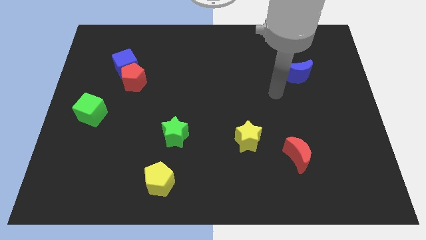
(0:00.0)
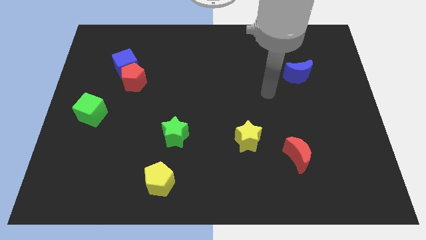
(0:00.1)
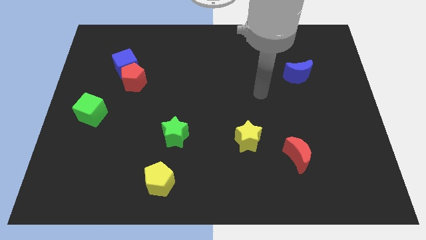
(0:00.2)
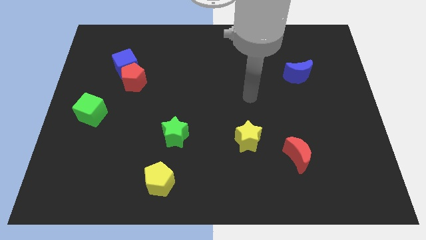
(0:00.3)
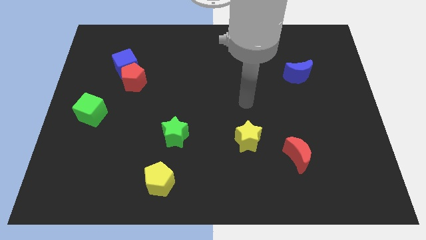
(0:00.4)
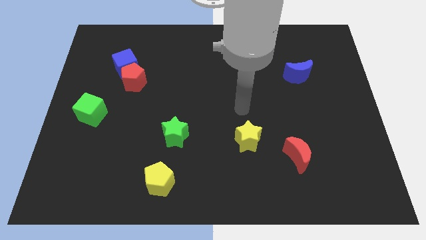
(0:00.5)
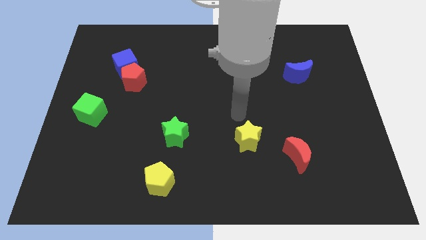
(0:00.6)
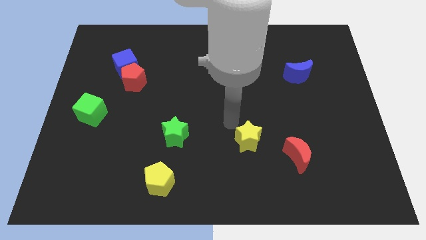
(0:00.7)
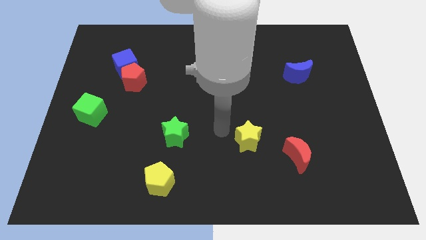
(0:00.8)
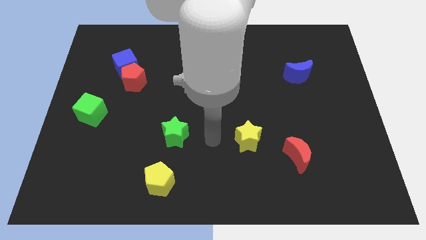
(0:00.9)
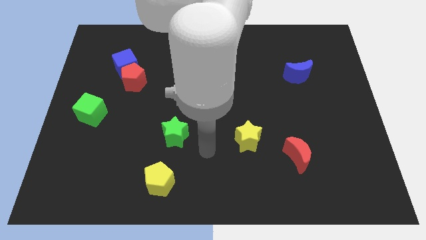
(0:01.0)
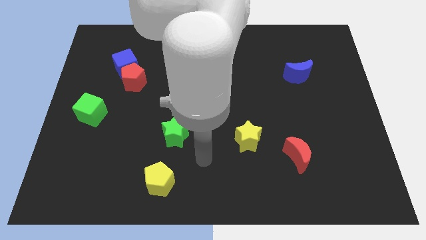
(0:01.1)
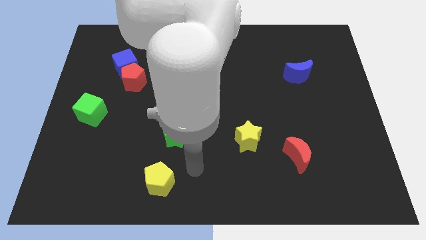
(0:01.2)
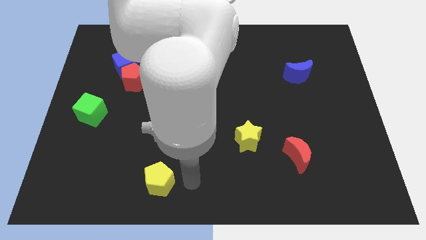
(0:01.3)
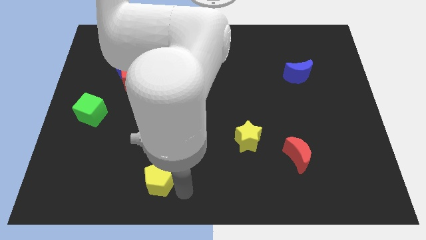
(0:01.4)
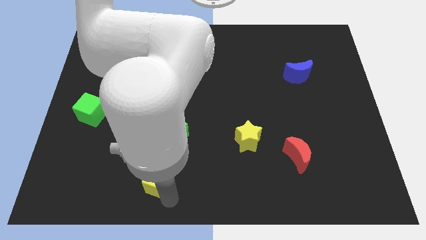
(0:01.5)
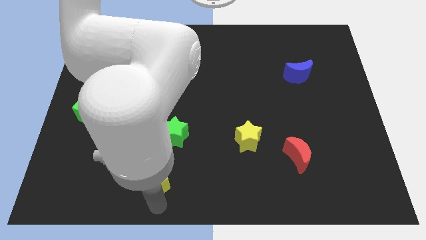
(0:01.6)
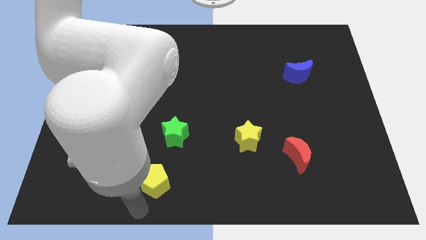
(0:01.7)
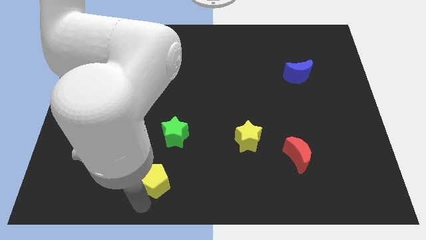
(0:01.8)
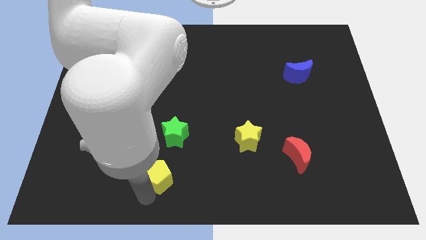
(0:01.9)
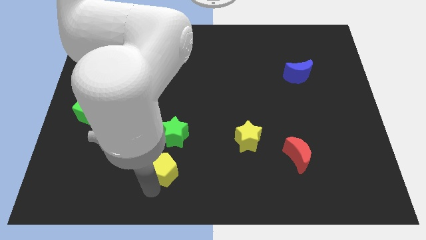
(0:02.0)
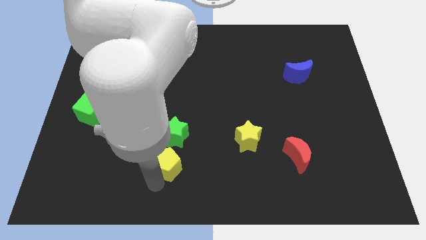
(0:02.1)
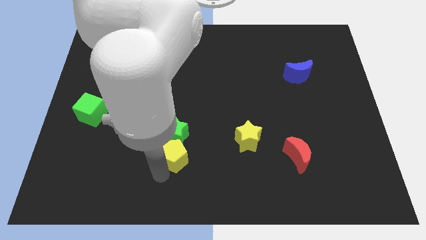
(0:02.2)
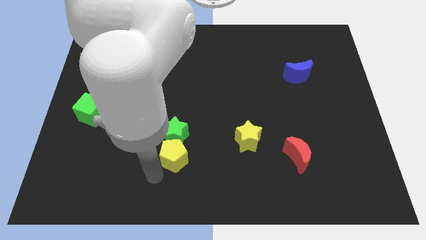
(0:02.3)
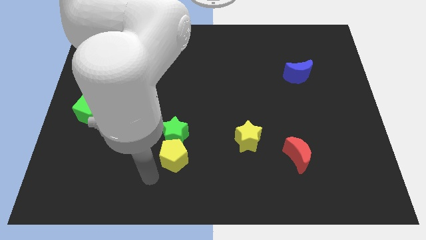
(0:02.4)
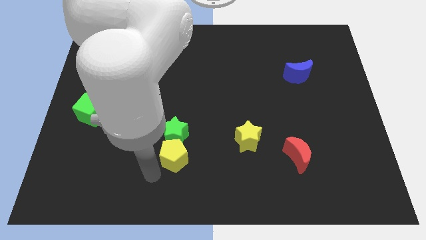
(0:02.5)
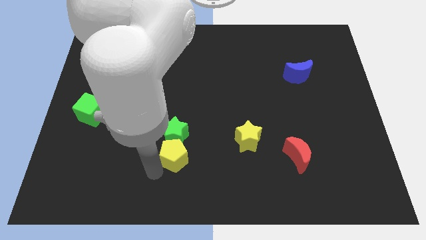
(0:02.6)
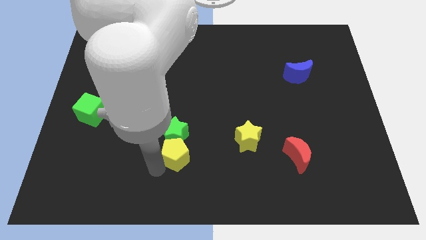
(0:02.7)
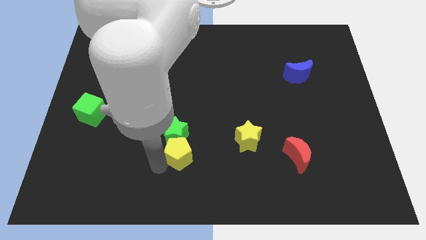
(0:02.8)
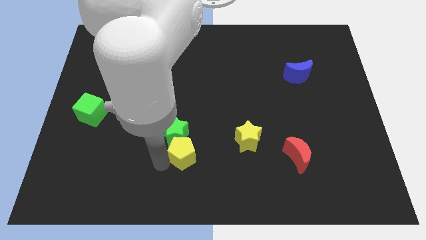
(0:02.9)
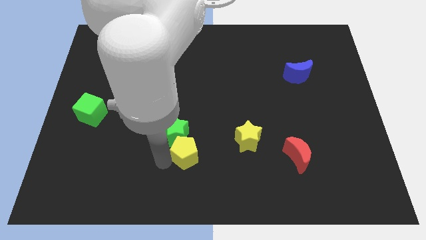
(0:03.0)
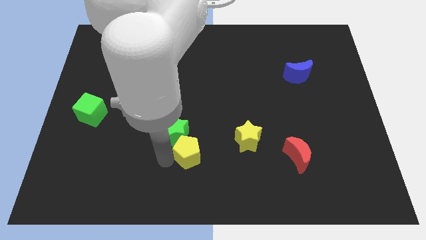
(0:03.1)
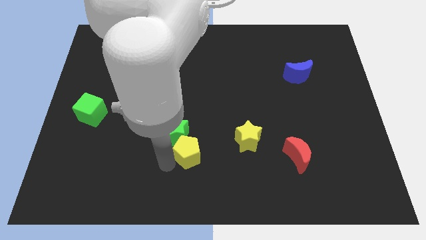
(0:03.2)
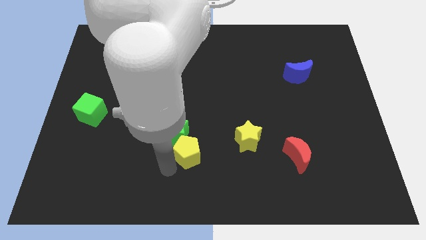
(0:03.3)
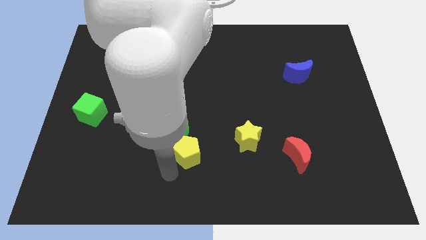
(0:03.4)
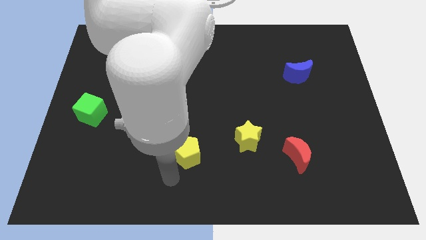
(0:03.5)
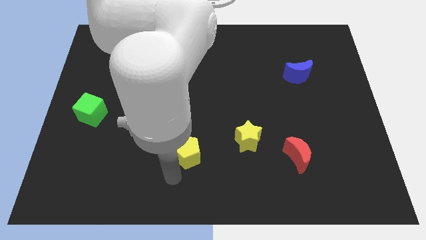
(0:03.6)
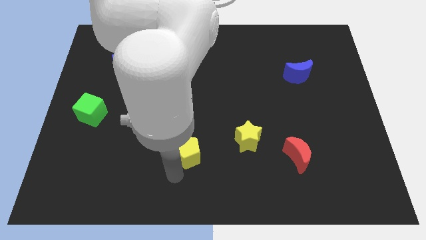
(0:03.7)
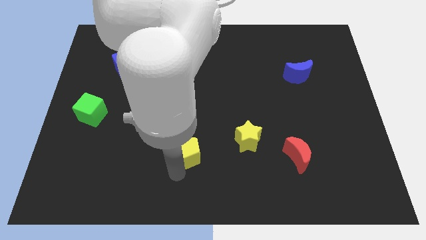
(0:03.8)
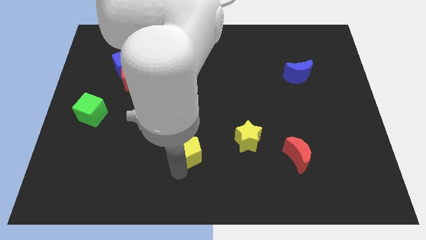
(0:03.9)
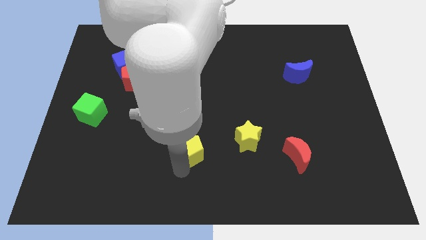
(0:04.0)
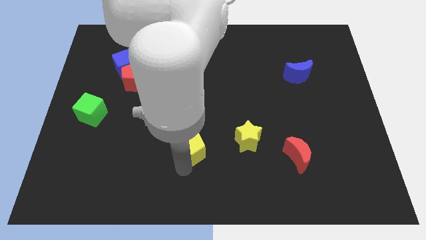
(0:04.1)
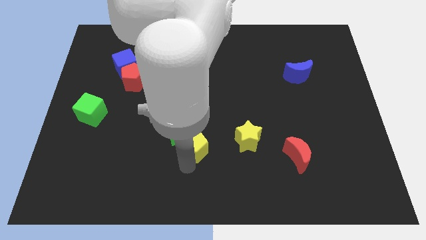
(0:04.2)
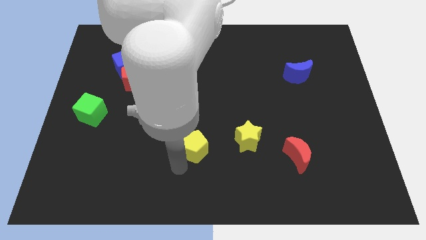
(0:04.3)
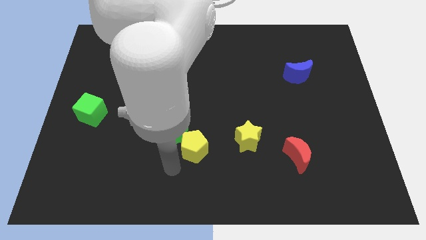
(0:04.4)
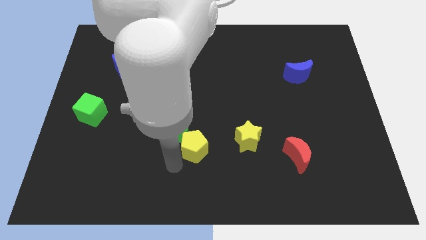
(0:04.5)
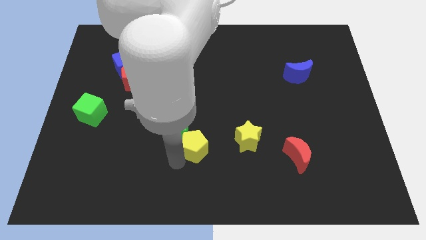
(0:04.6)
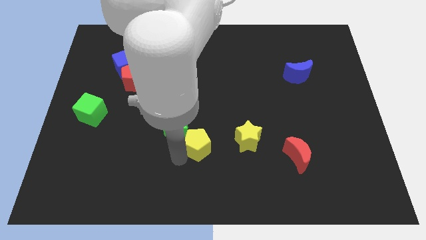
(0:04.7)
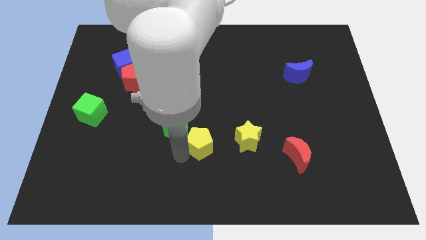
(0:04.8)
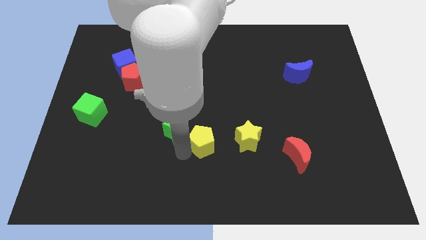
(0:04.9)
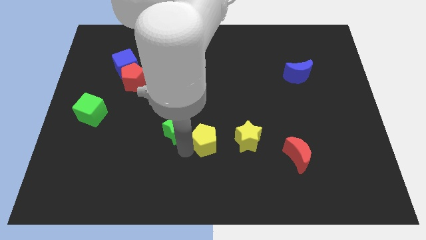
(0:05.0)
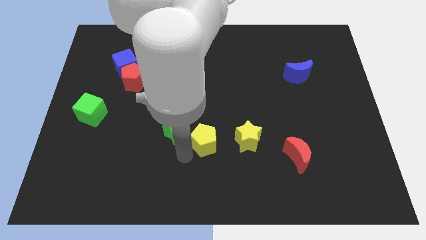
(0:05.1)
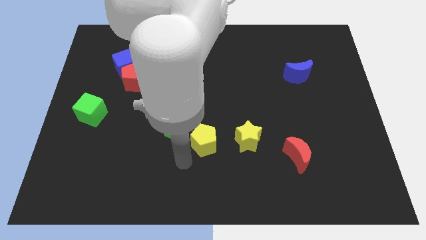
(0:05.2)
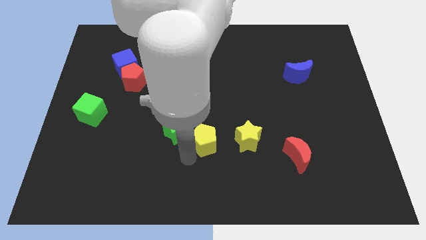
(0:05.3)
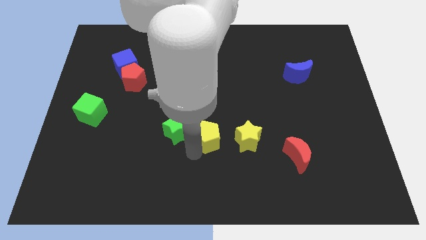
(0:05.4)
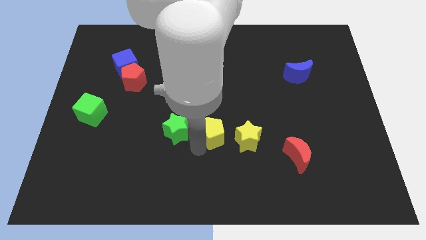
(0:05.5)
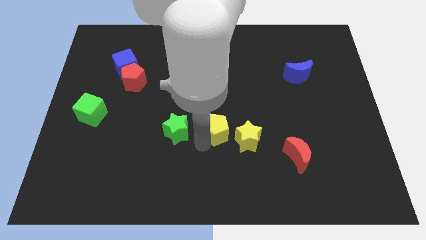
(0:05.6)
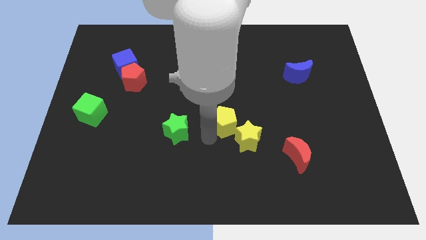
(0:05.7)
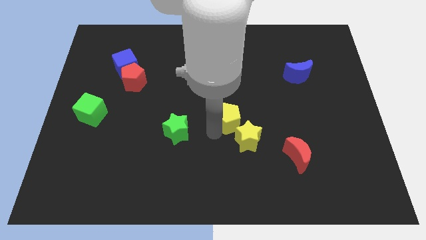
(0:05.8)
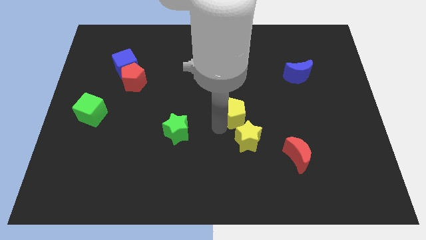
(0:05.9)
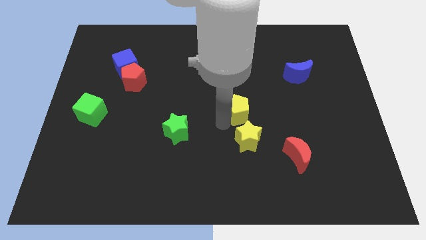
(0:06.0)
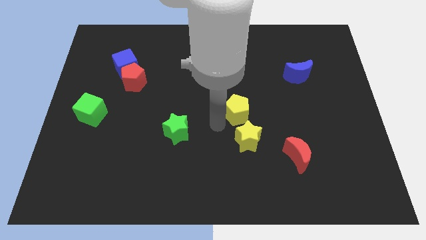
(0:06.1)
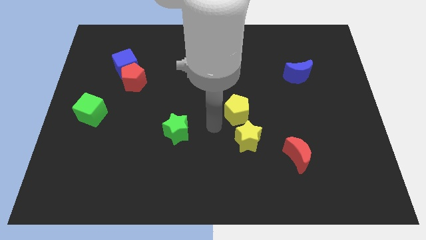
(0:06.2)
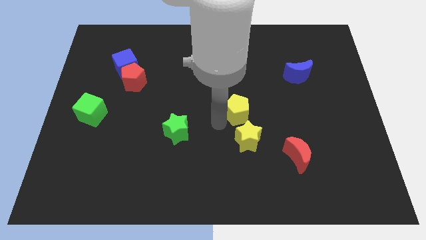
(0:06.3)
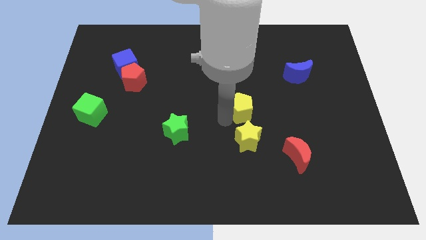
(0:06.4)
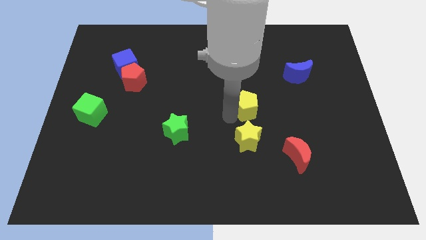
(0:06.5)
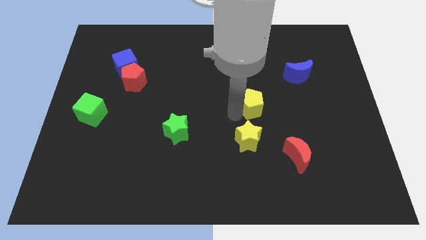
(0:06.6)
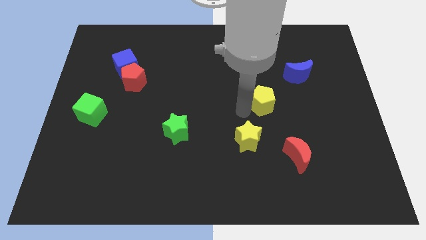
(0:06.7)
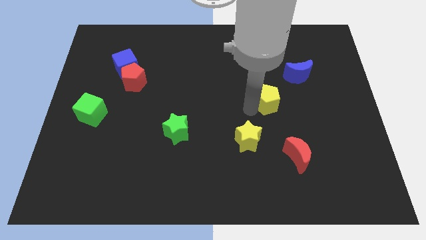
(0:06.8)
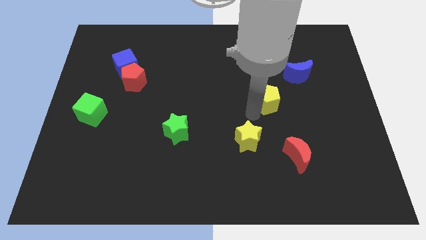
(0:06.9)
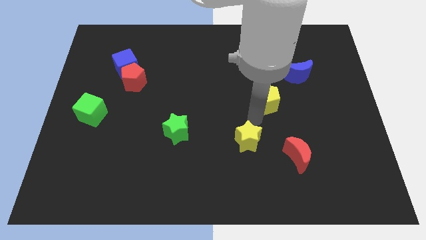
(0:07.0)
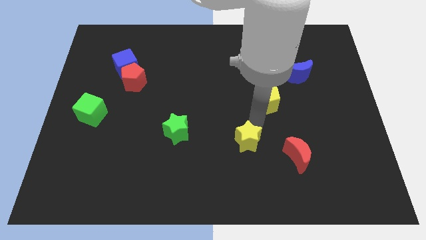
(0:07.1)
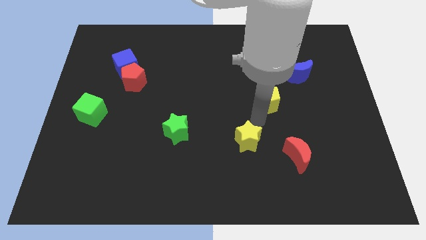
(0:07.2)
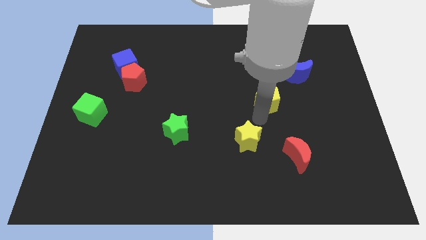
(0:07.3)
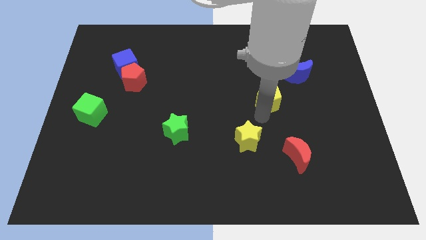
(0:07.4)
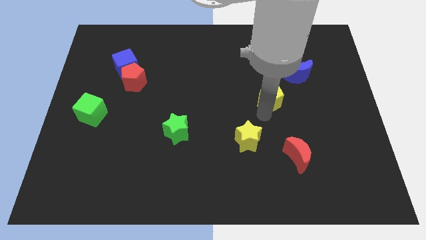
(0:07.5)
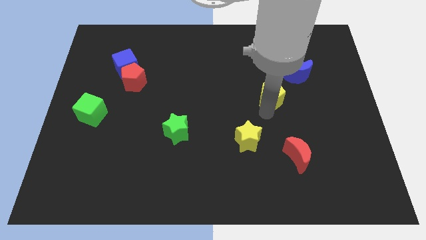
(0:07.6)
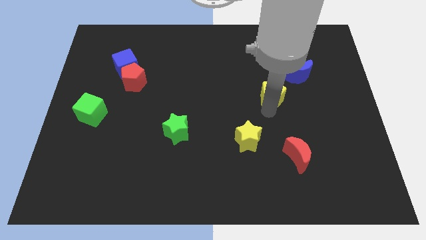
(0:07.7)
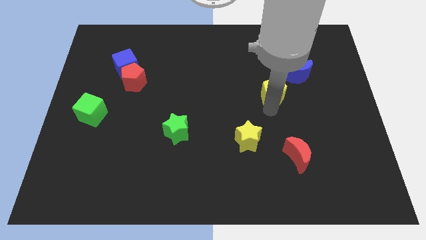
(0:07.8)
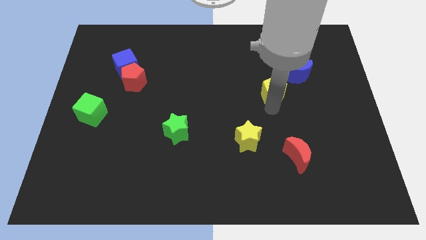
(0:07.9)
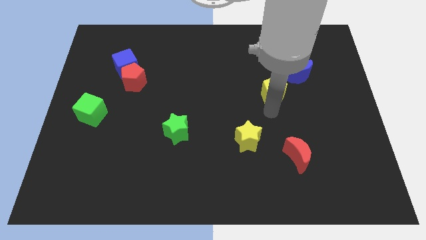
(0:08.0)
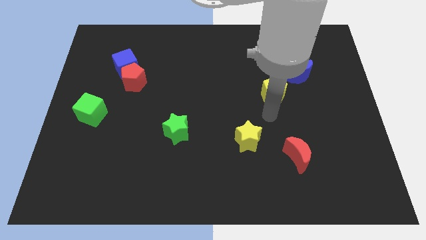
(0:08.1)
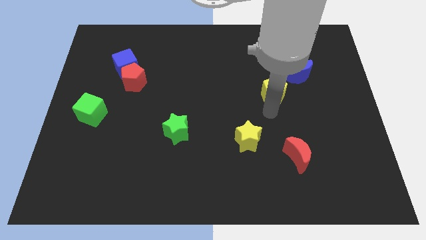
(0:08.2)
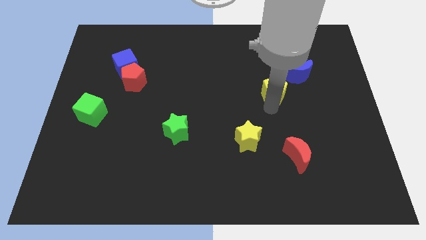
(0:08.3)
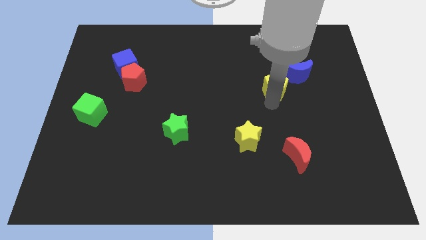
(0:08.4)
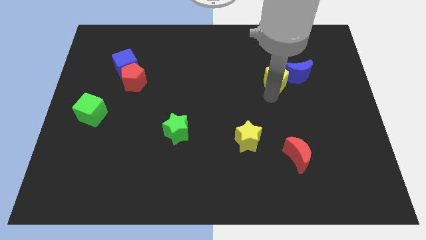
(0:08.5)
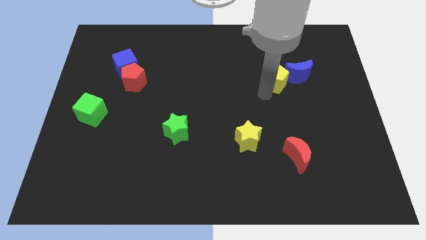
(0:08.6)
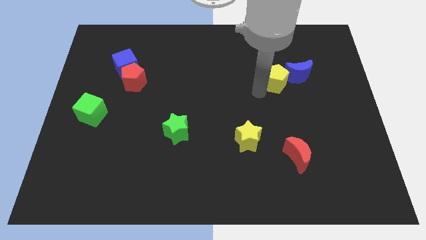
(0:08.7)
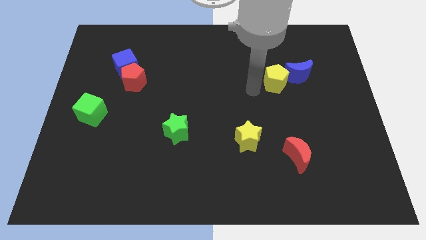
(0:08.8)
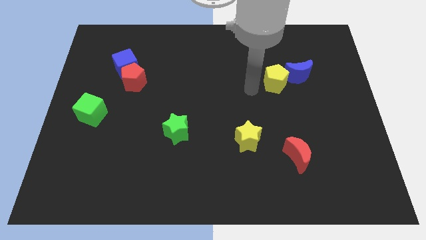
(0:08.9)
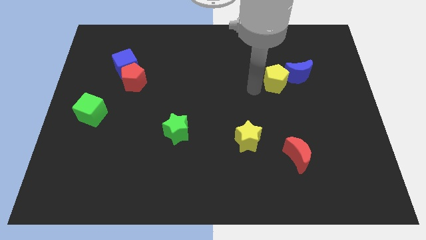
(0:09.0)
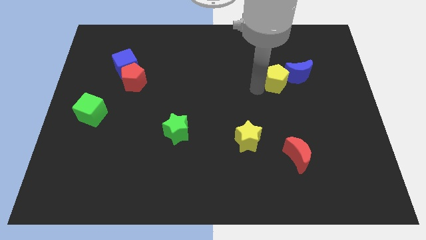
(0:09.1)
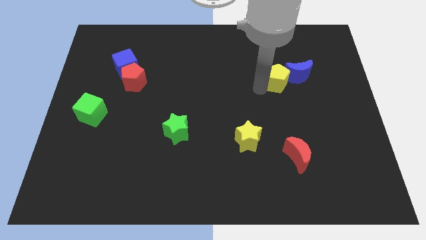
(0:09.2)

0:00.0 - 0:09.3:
move the yellow pentagon close to the blue moon
